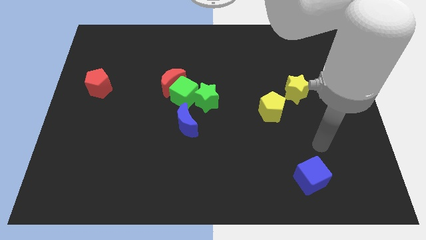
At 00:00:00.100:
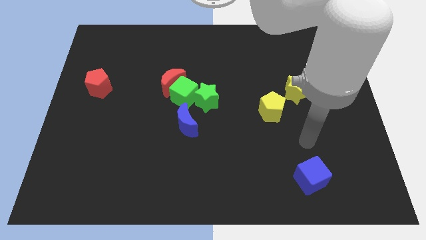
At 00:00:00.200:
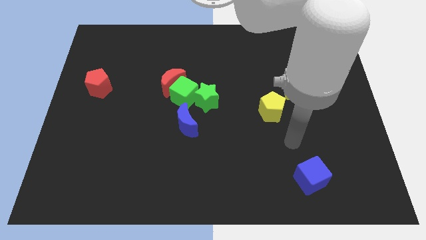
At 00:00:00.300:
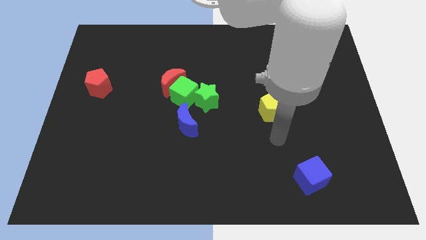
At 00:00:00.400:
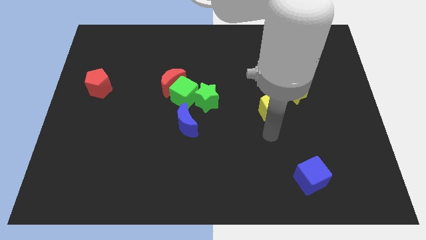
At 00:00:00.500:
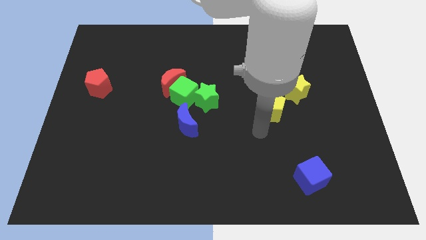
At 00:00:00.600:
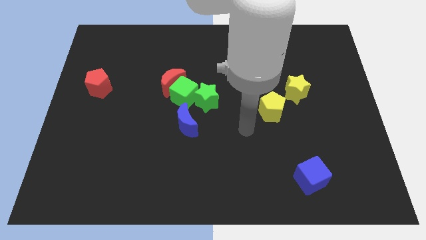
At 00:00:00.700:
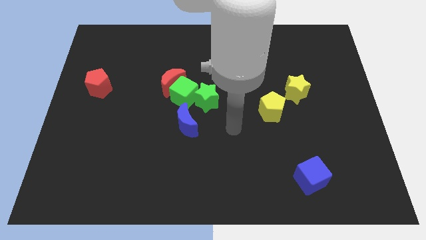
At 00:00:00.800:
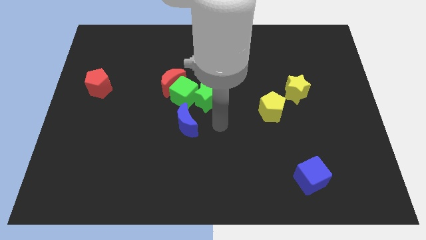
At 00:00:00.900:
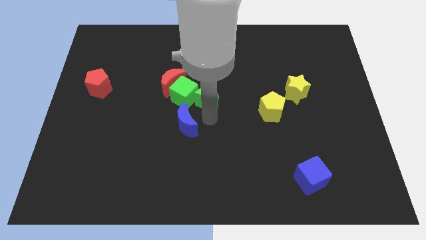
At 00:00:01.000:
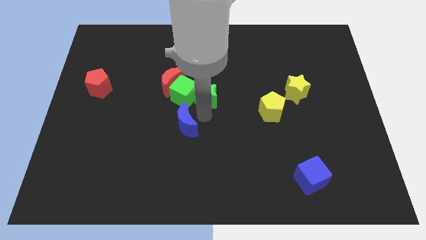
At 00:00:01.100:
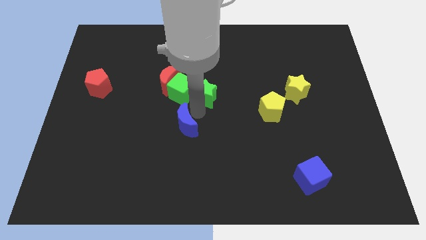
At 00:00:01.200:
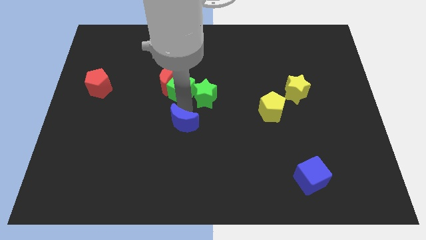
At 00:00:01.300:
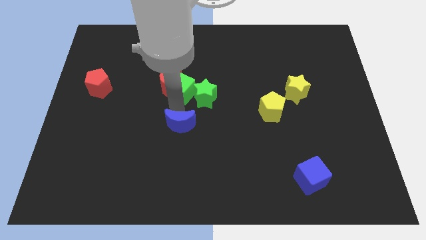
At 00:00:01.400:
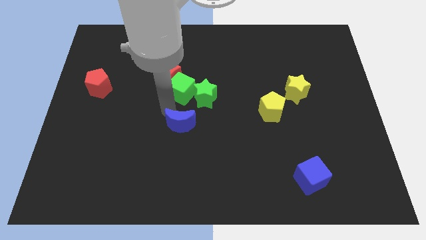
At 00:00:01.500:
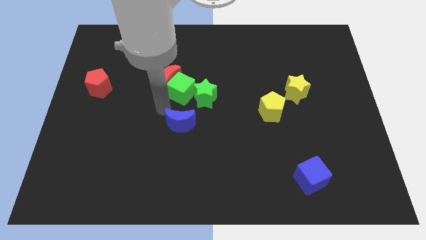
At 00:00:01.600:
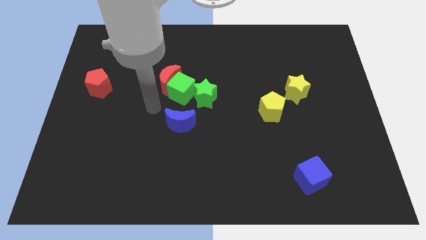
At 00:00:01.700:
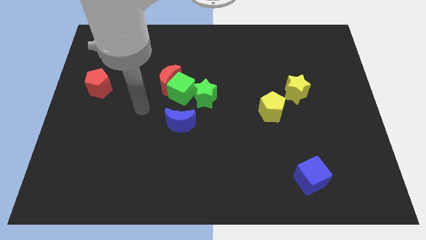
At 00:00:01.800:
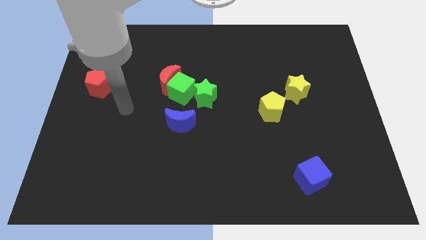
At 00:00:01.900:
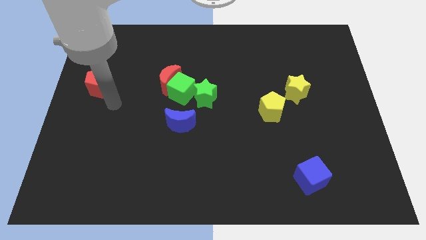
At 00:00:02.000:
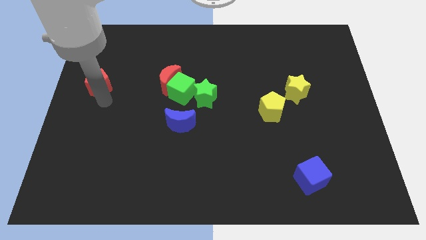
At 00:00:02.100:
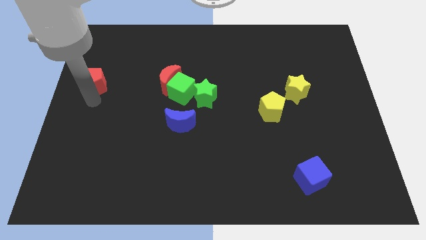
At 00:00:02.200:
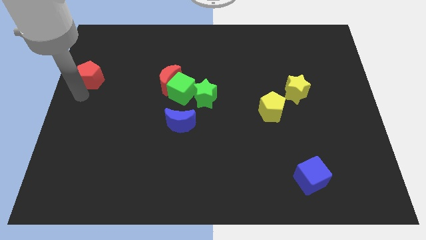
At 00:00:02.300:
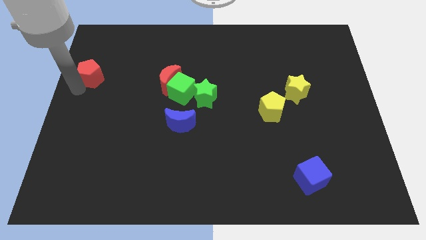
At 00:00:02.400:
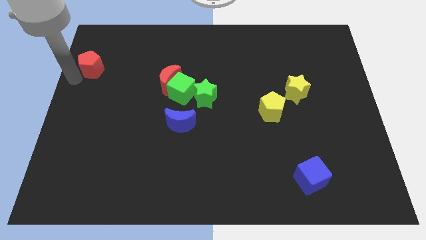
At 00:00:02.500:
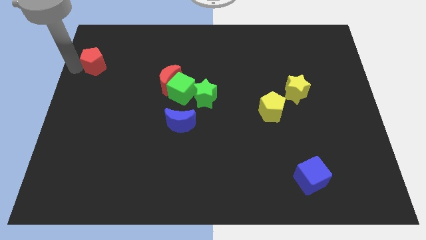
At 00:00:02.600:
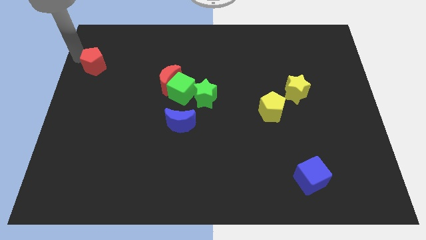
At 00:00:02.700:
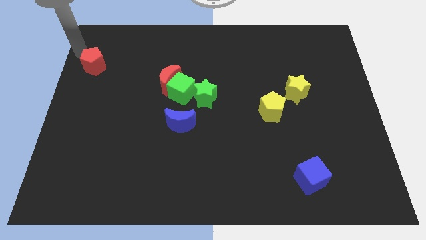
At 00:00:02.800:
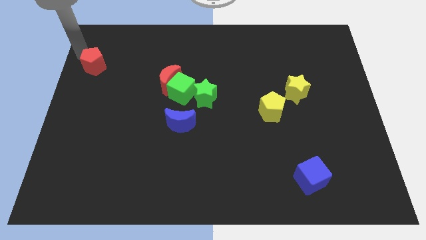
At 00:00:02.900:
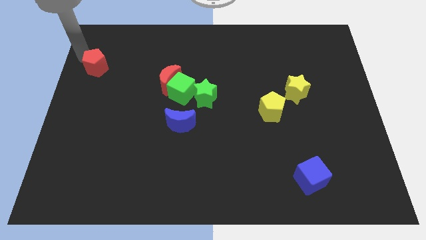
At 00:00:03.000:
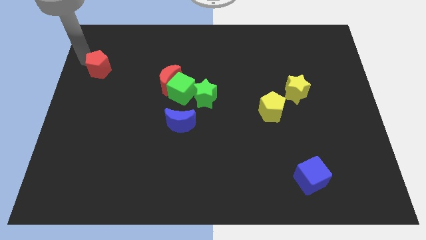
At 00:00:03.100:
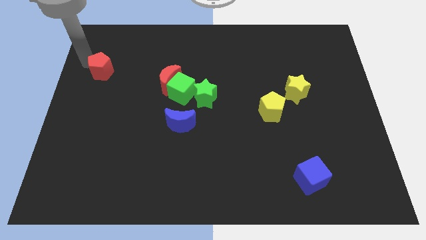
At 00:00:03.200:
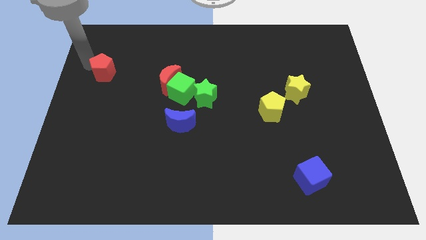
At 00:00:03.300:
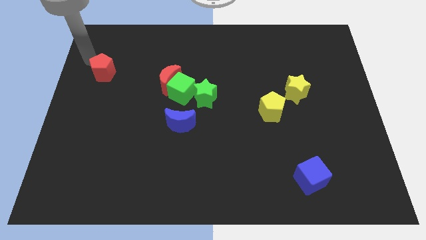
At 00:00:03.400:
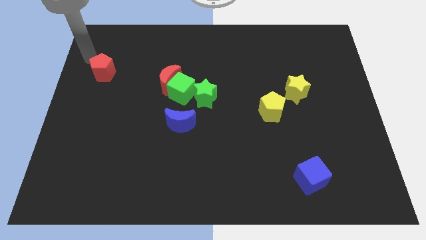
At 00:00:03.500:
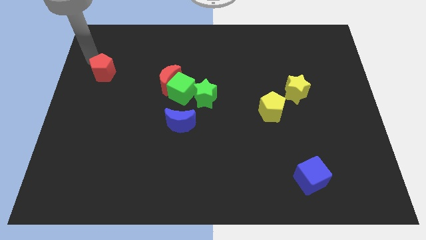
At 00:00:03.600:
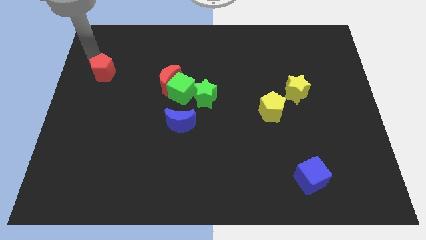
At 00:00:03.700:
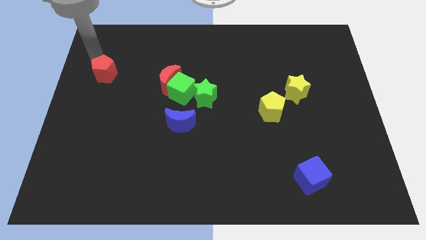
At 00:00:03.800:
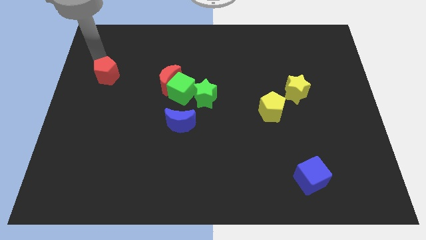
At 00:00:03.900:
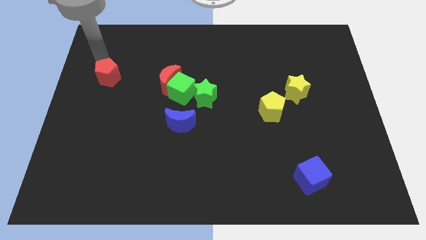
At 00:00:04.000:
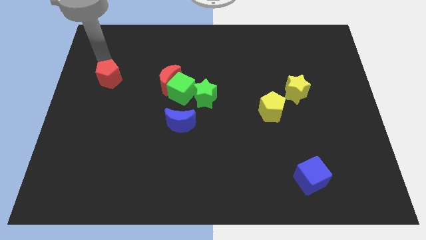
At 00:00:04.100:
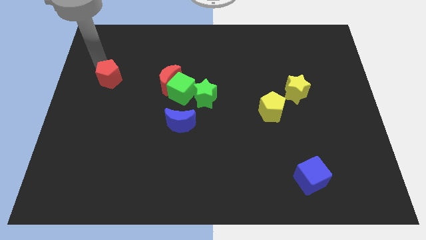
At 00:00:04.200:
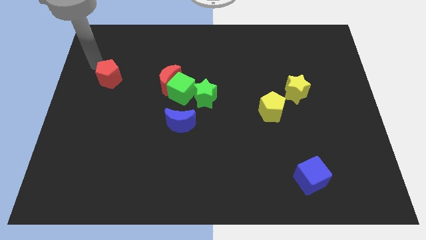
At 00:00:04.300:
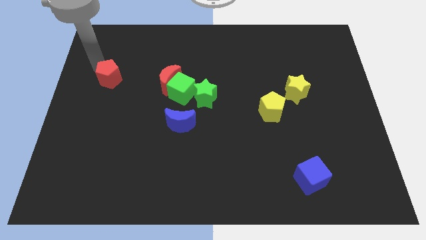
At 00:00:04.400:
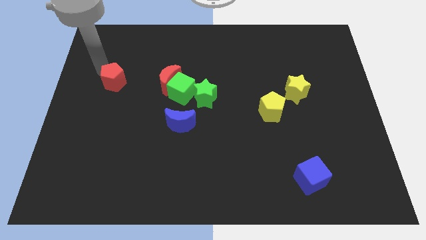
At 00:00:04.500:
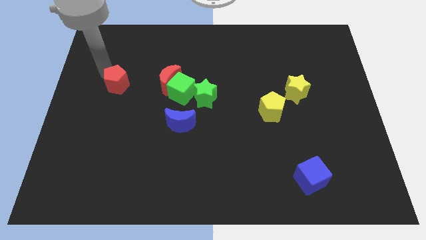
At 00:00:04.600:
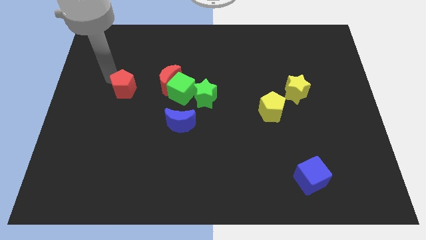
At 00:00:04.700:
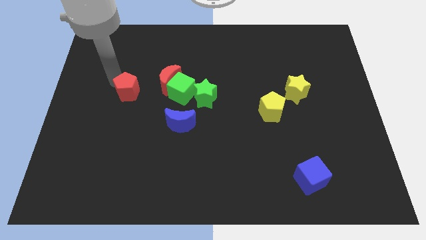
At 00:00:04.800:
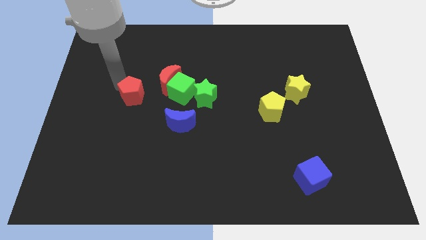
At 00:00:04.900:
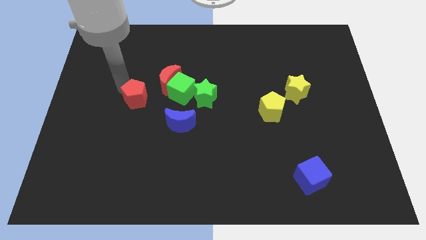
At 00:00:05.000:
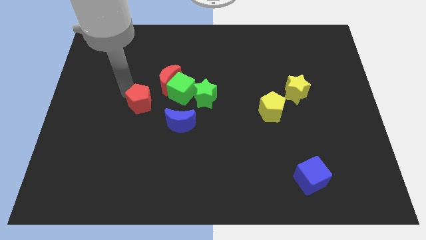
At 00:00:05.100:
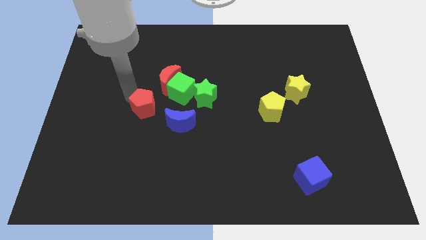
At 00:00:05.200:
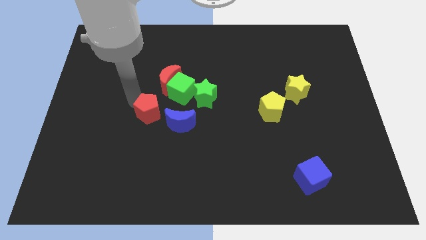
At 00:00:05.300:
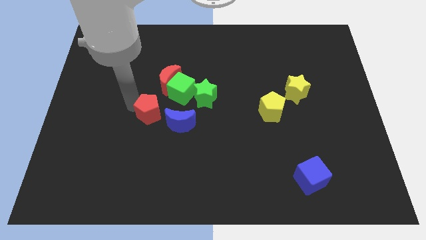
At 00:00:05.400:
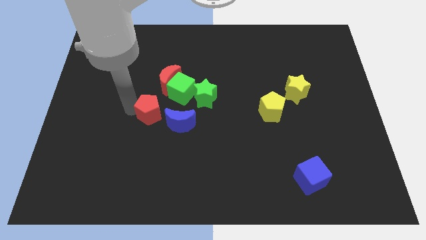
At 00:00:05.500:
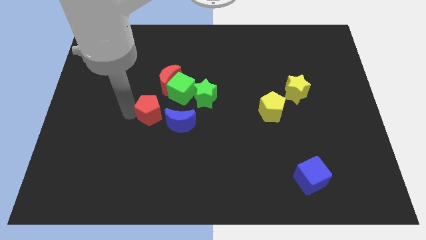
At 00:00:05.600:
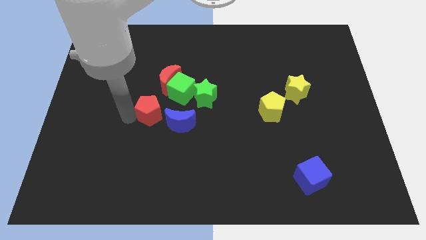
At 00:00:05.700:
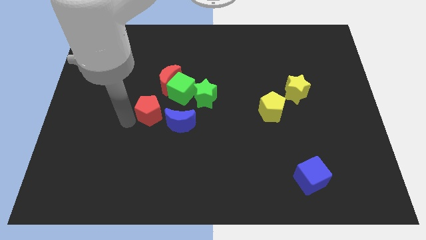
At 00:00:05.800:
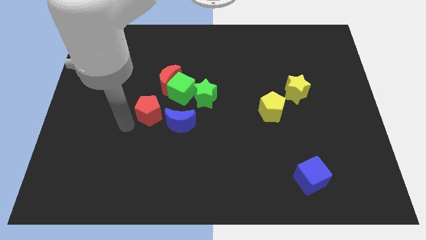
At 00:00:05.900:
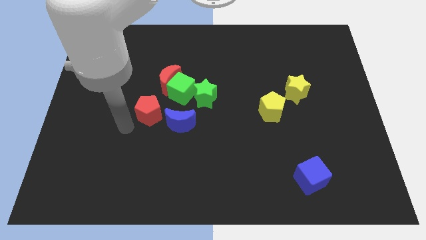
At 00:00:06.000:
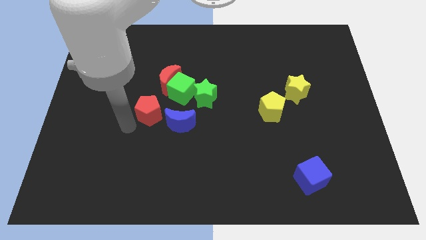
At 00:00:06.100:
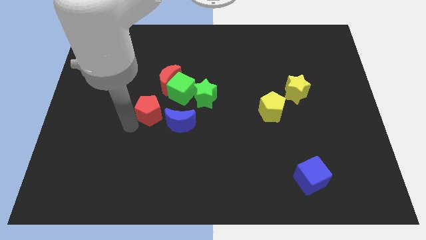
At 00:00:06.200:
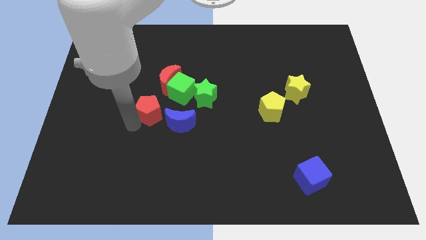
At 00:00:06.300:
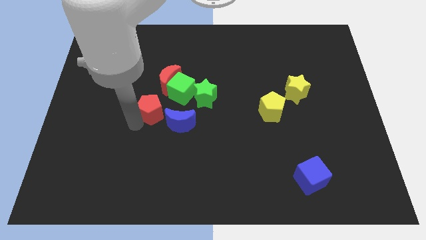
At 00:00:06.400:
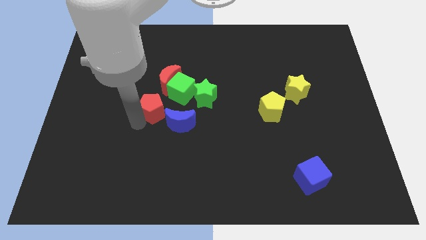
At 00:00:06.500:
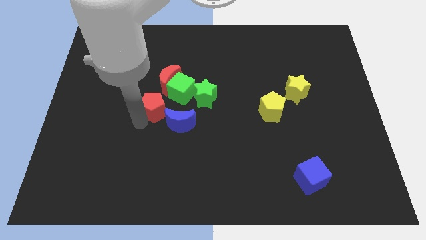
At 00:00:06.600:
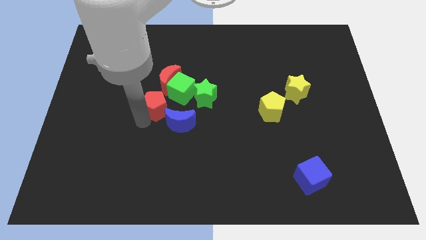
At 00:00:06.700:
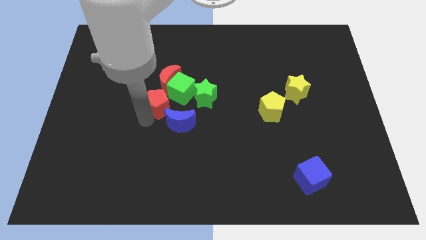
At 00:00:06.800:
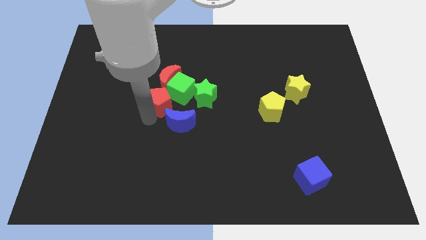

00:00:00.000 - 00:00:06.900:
put the red pentagon close to the green cube
